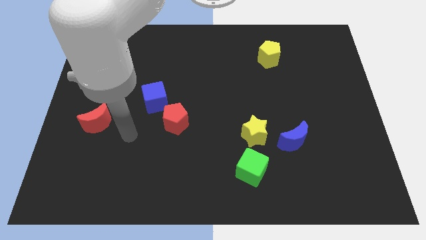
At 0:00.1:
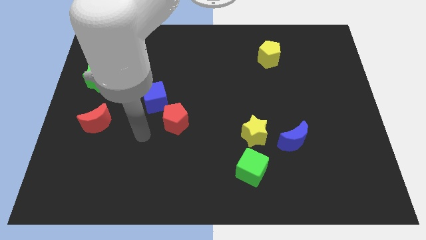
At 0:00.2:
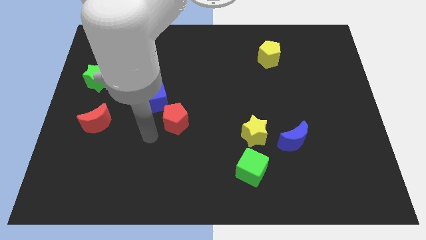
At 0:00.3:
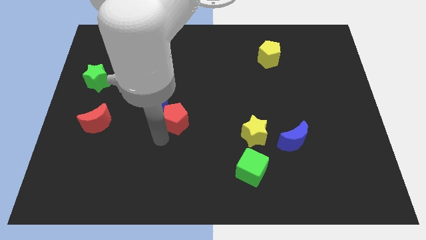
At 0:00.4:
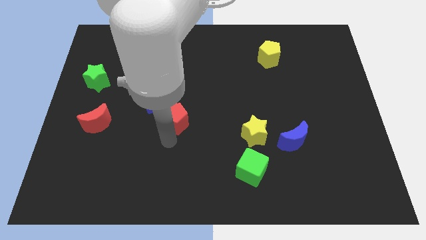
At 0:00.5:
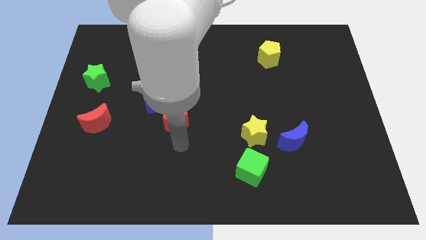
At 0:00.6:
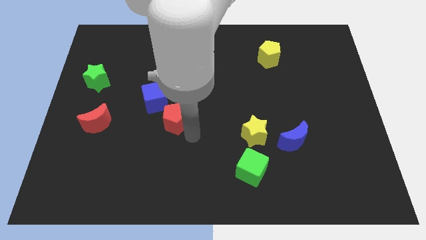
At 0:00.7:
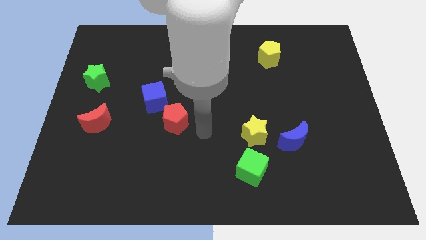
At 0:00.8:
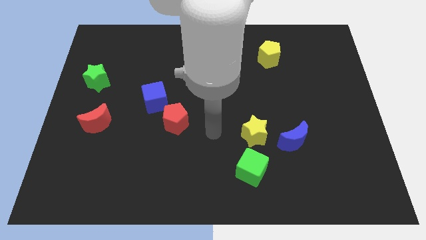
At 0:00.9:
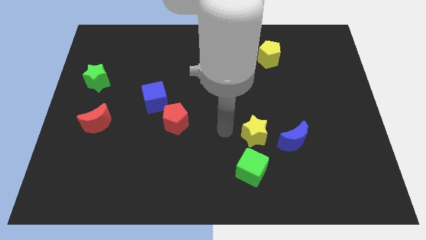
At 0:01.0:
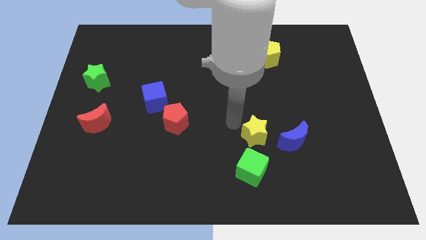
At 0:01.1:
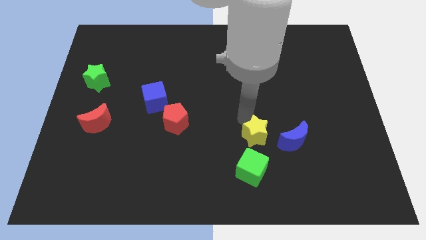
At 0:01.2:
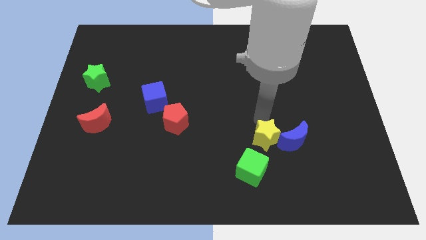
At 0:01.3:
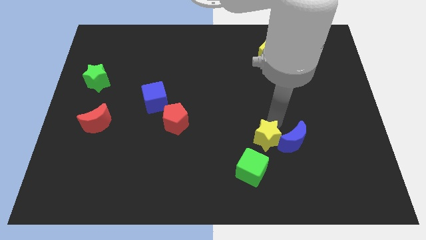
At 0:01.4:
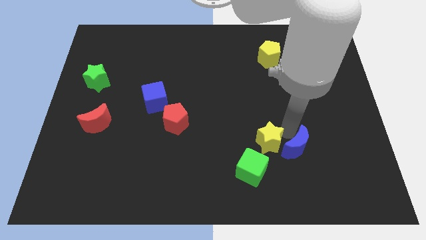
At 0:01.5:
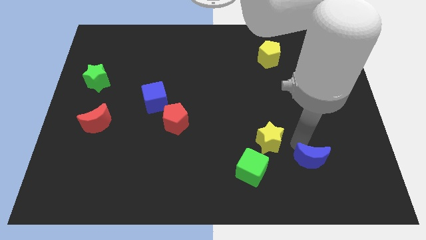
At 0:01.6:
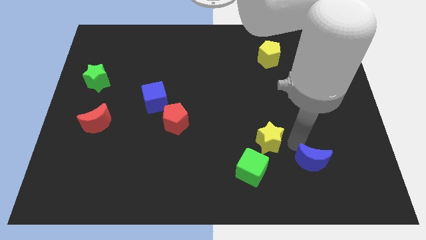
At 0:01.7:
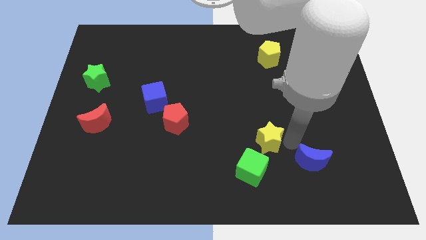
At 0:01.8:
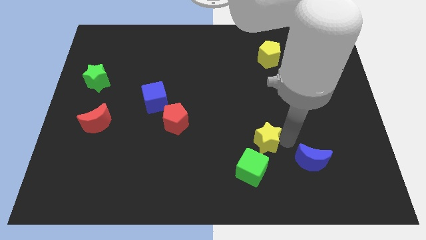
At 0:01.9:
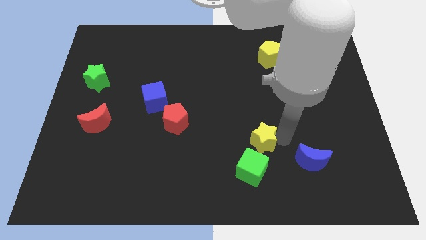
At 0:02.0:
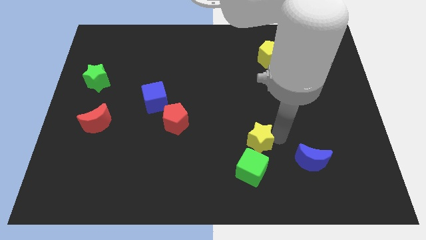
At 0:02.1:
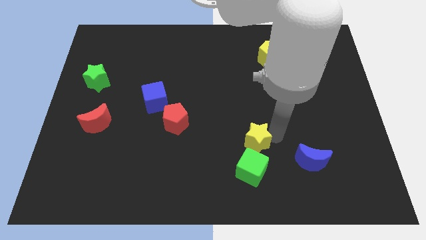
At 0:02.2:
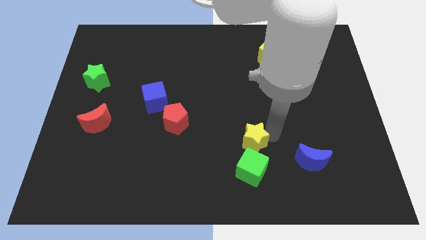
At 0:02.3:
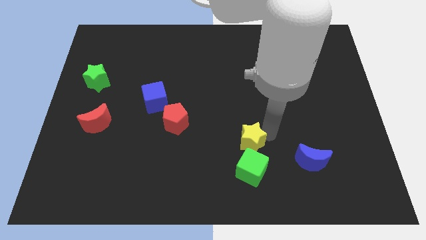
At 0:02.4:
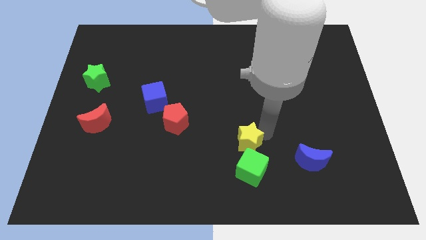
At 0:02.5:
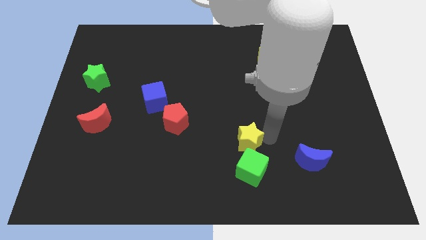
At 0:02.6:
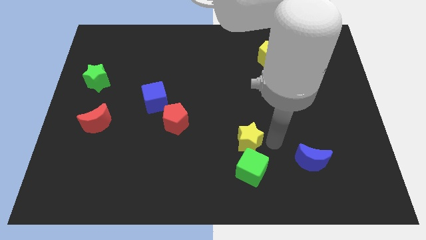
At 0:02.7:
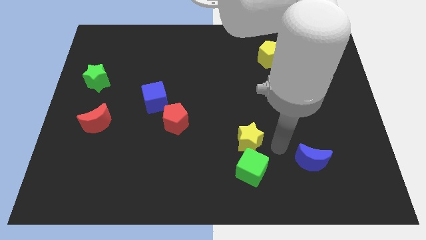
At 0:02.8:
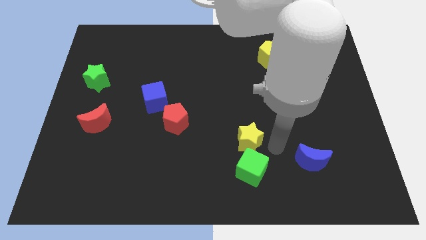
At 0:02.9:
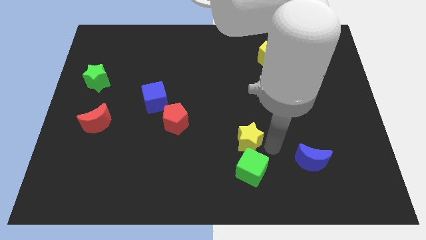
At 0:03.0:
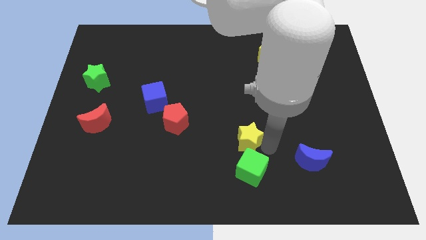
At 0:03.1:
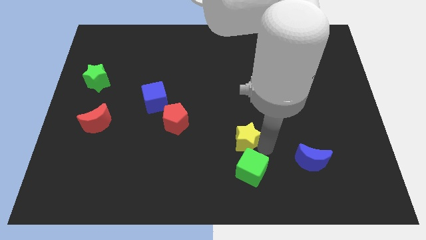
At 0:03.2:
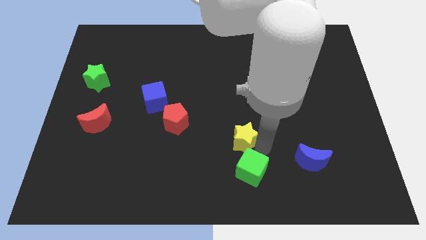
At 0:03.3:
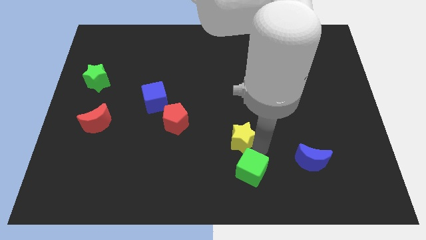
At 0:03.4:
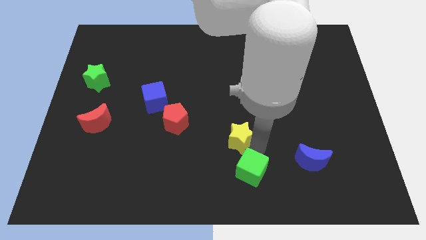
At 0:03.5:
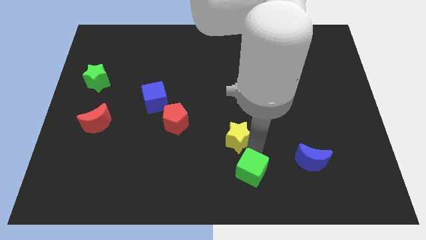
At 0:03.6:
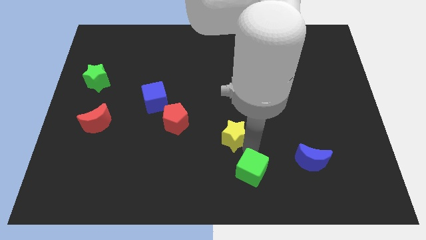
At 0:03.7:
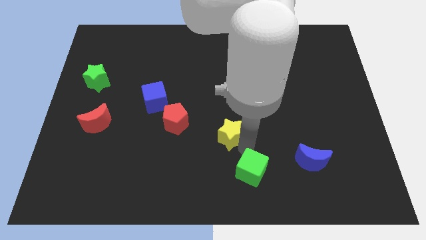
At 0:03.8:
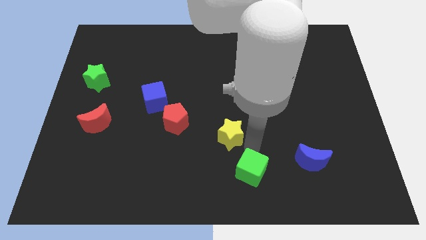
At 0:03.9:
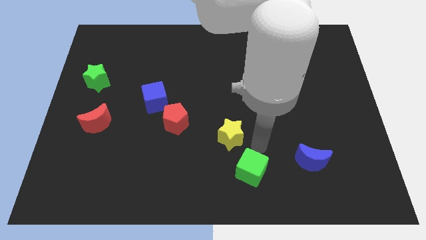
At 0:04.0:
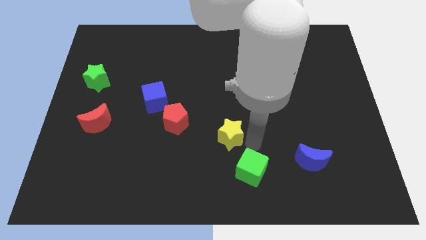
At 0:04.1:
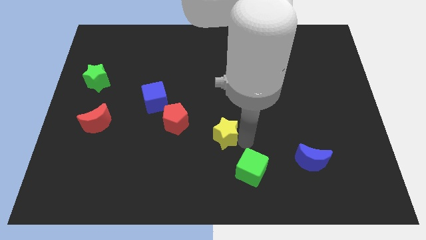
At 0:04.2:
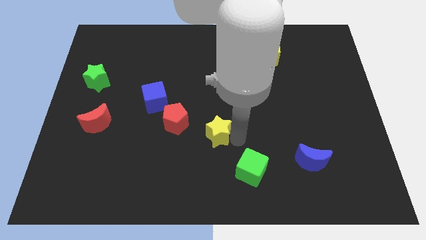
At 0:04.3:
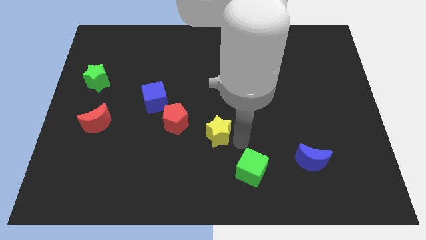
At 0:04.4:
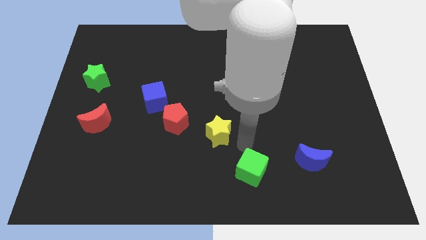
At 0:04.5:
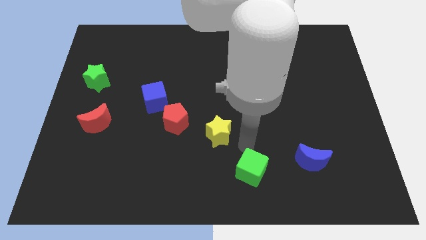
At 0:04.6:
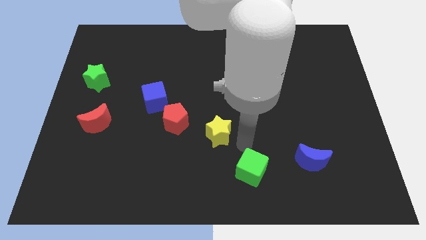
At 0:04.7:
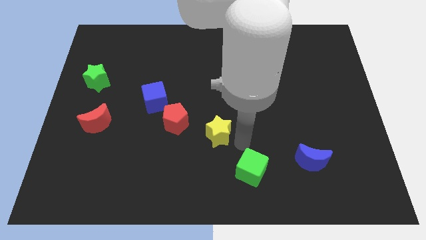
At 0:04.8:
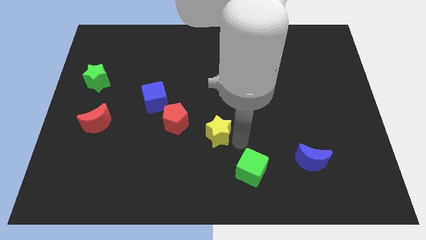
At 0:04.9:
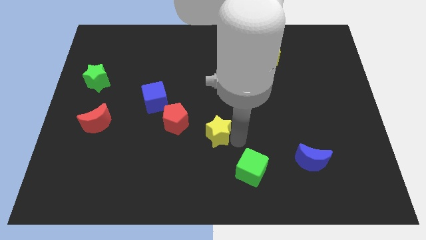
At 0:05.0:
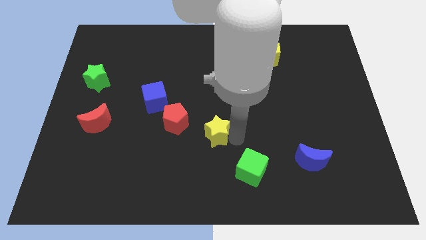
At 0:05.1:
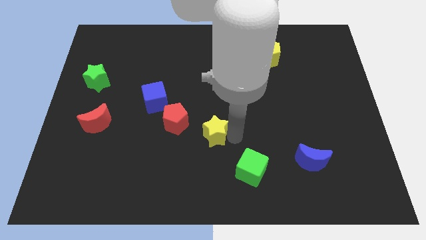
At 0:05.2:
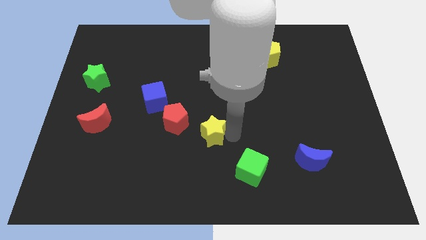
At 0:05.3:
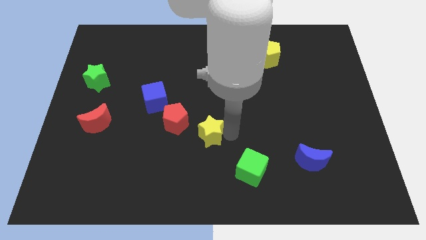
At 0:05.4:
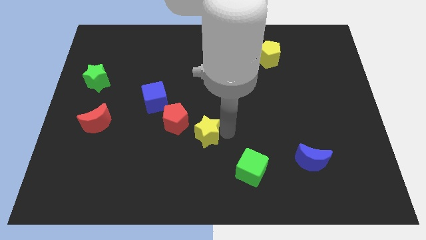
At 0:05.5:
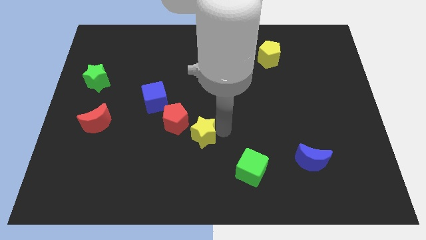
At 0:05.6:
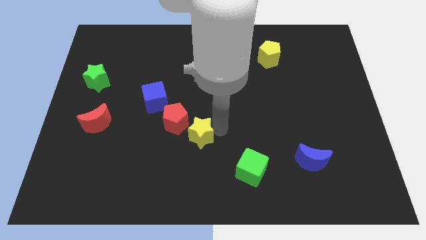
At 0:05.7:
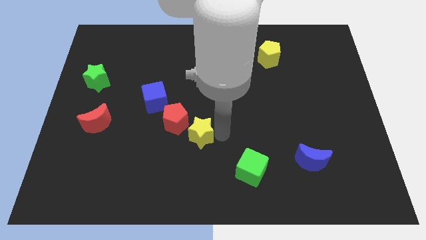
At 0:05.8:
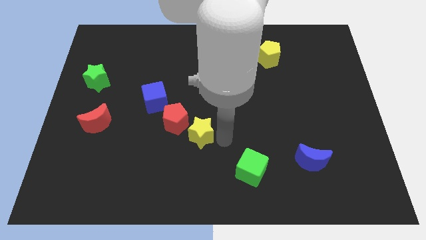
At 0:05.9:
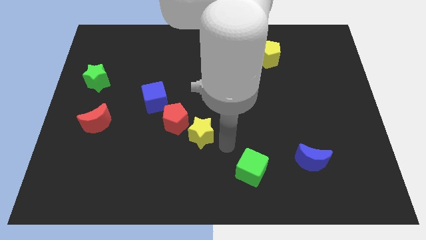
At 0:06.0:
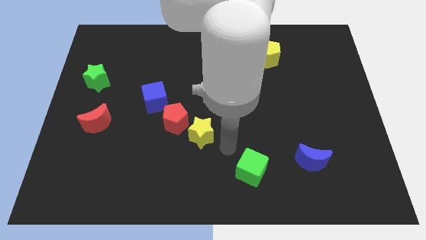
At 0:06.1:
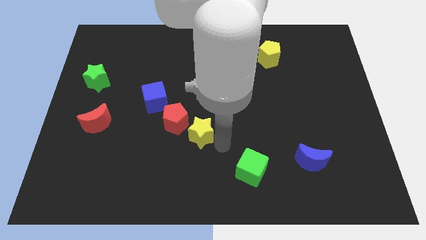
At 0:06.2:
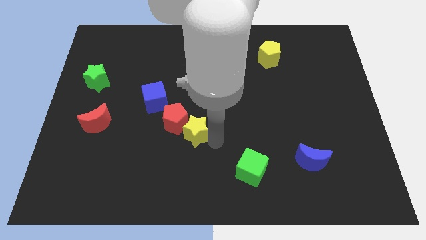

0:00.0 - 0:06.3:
move the yellow star close to the red pentagon

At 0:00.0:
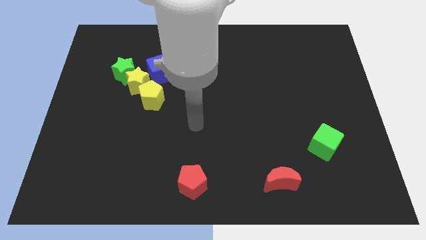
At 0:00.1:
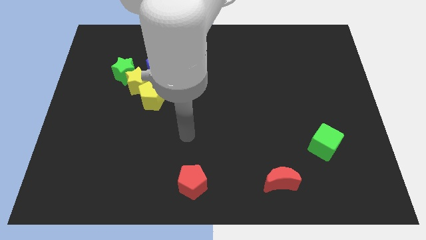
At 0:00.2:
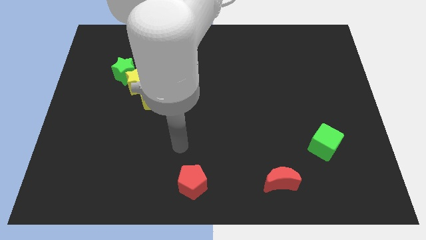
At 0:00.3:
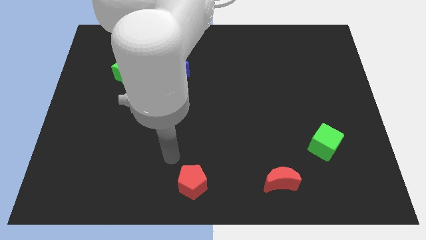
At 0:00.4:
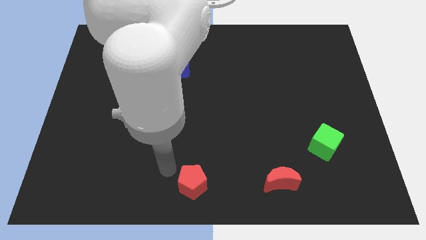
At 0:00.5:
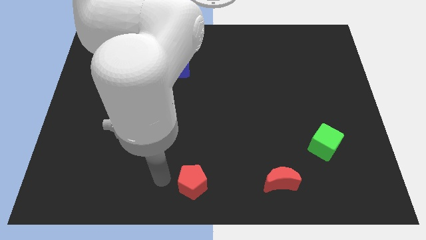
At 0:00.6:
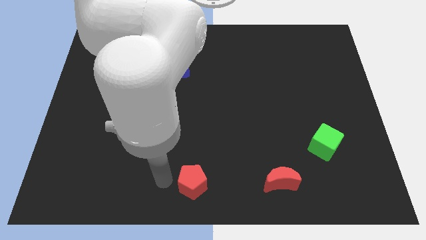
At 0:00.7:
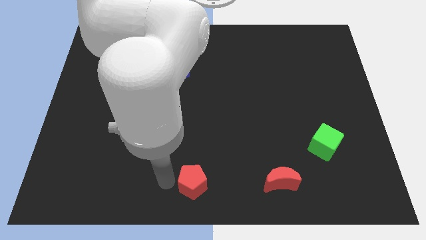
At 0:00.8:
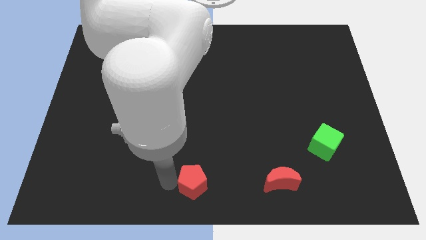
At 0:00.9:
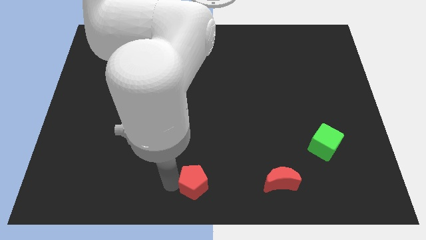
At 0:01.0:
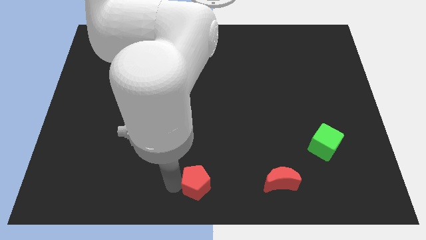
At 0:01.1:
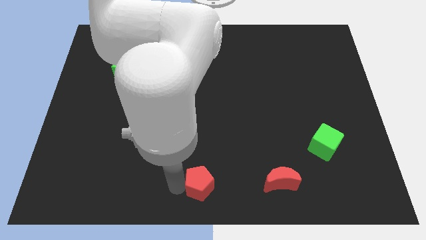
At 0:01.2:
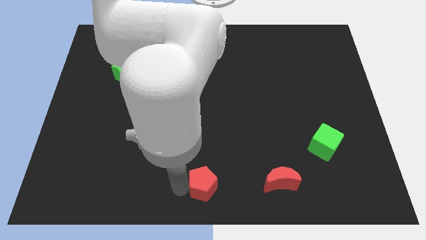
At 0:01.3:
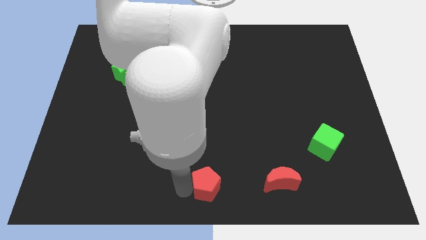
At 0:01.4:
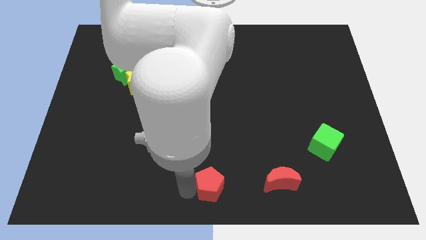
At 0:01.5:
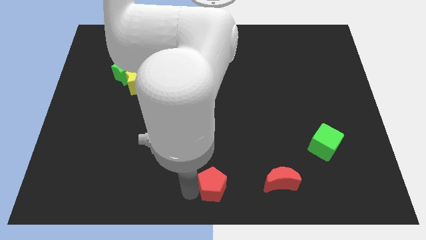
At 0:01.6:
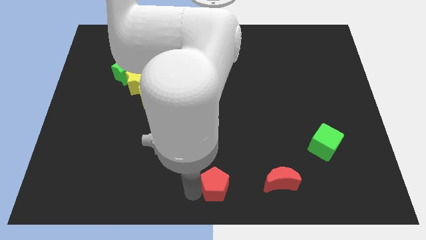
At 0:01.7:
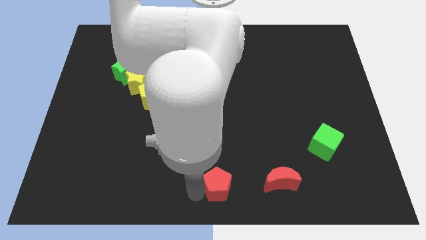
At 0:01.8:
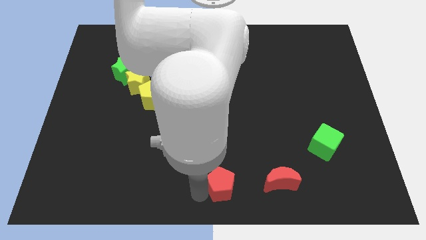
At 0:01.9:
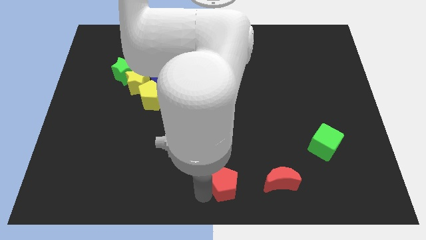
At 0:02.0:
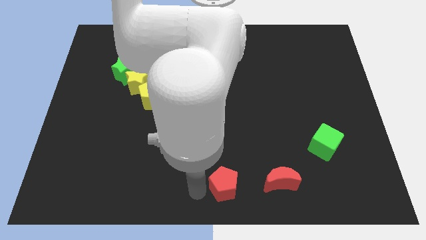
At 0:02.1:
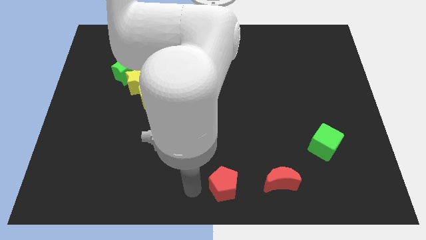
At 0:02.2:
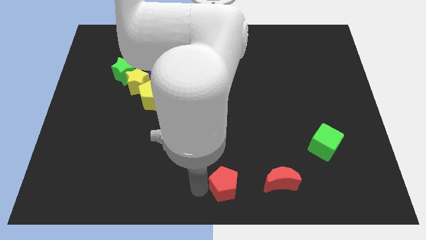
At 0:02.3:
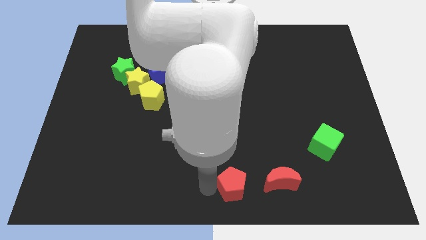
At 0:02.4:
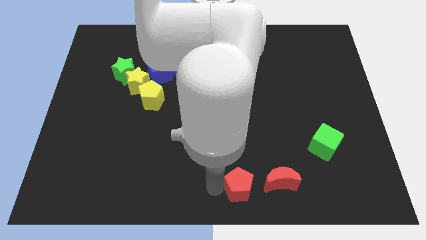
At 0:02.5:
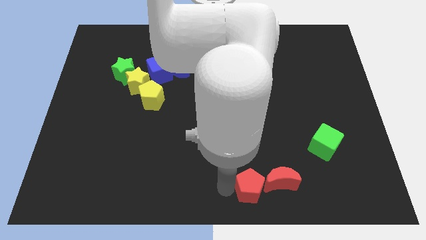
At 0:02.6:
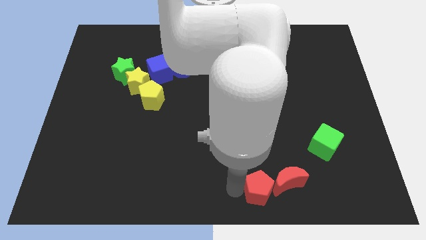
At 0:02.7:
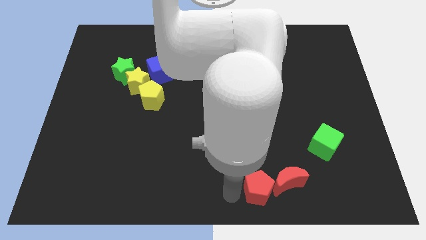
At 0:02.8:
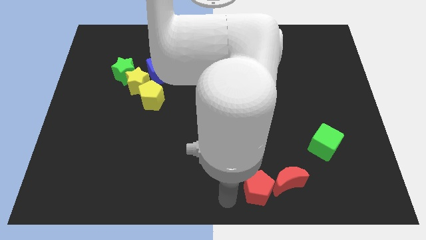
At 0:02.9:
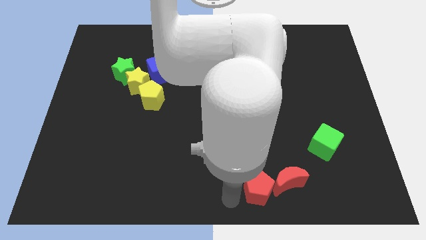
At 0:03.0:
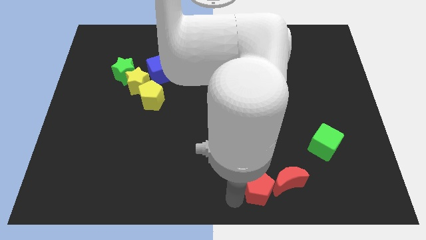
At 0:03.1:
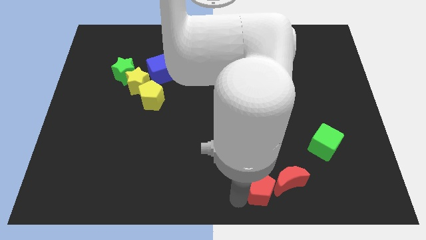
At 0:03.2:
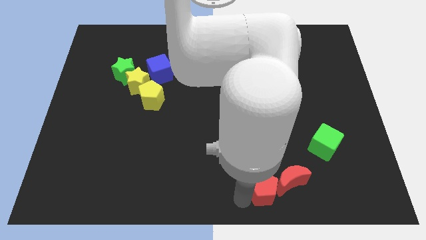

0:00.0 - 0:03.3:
put the red pentagon to the red moon
